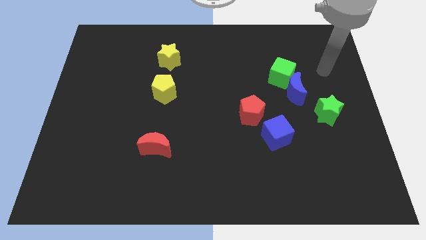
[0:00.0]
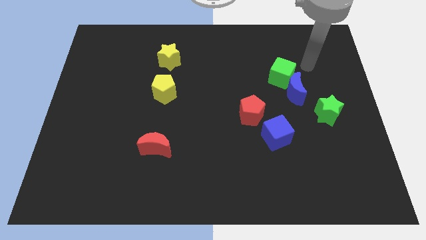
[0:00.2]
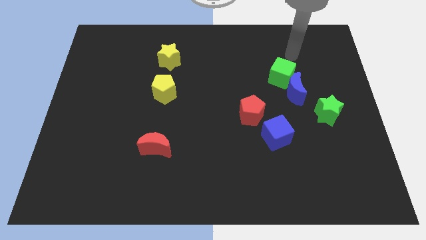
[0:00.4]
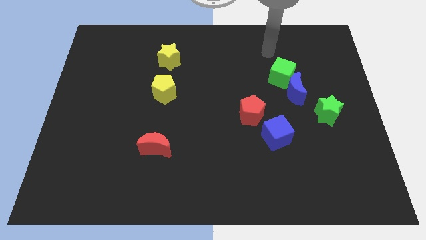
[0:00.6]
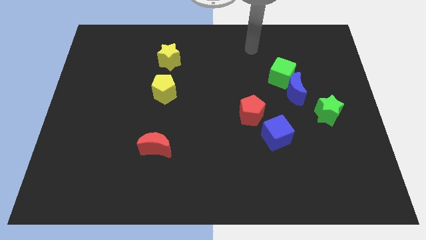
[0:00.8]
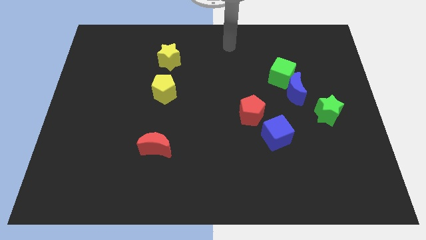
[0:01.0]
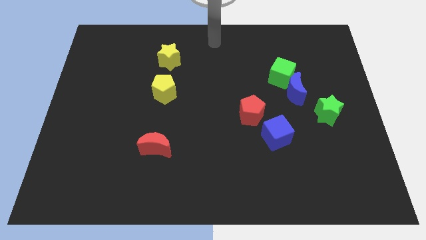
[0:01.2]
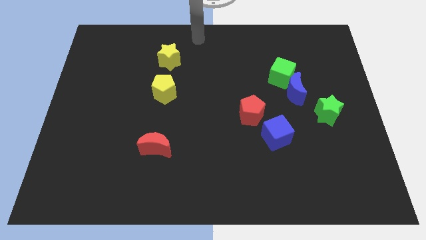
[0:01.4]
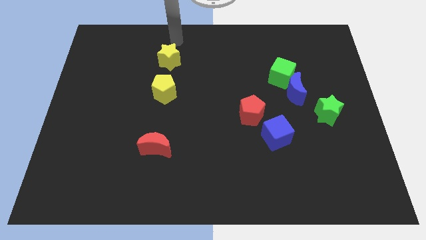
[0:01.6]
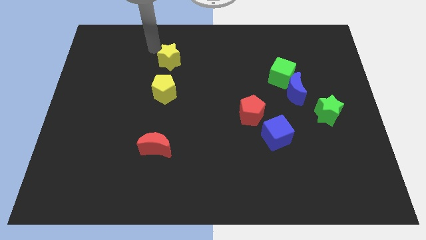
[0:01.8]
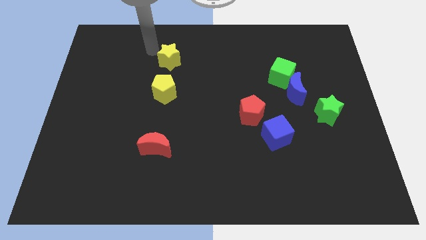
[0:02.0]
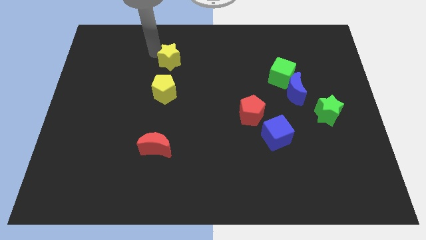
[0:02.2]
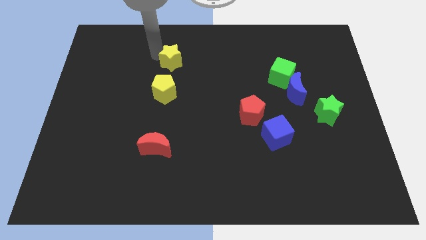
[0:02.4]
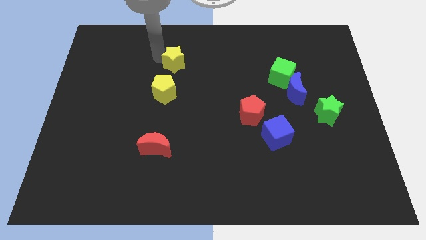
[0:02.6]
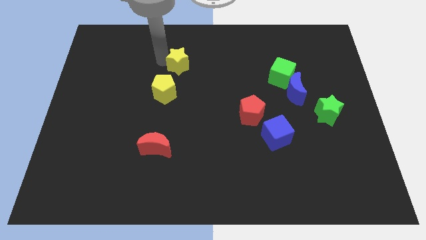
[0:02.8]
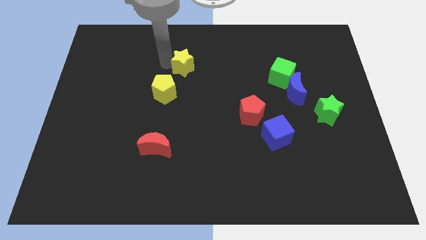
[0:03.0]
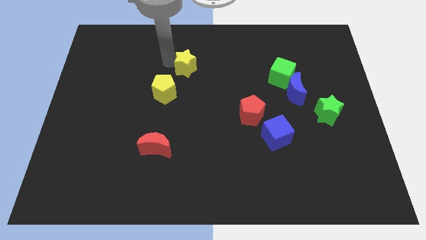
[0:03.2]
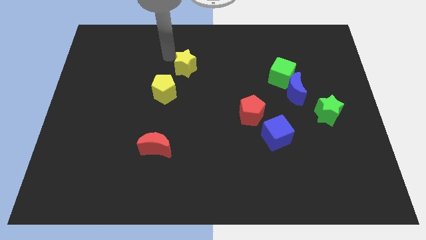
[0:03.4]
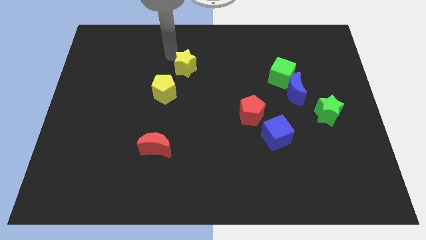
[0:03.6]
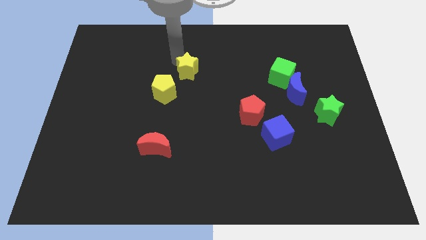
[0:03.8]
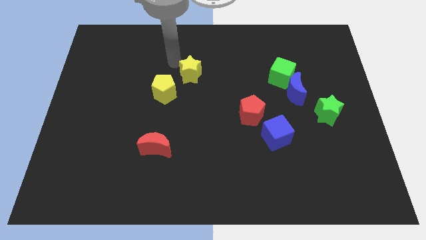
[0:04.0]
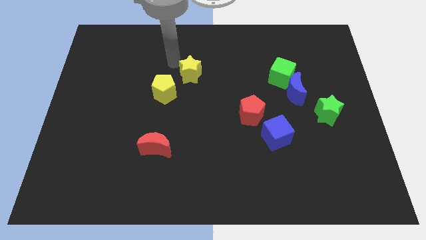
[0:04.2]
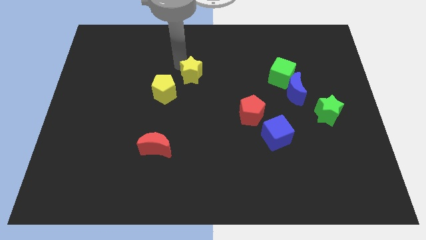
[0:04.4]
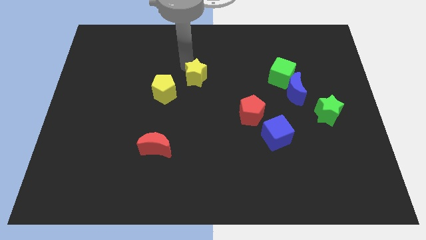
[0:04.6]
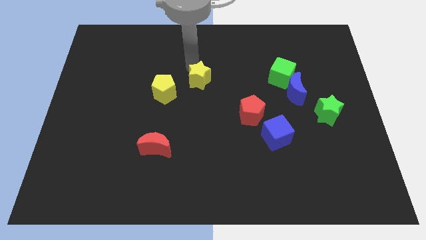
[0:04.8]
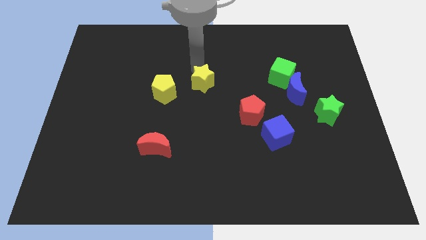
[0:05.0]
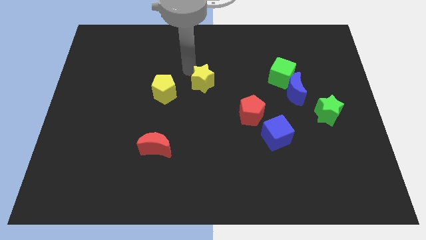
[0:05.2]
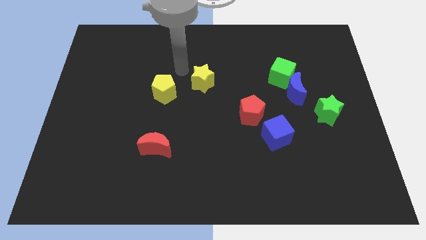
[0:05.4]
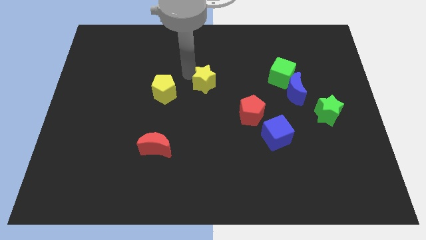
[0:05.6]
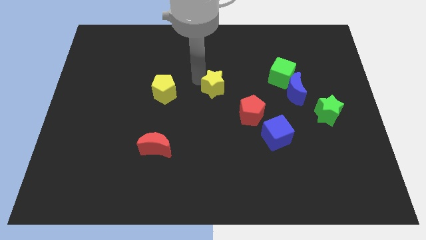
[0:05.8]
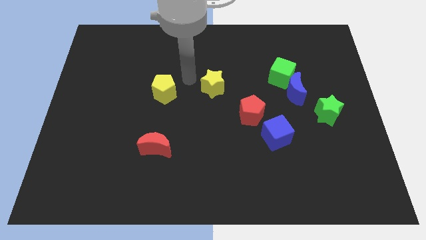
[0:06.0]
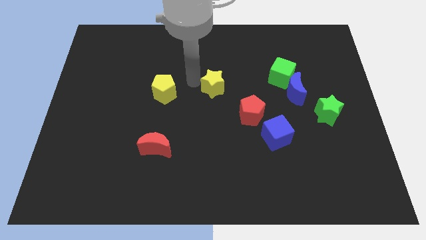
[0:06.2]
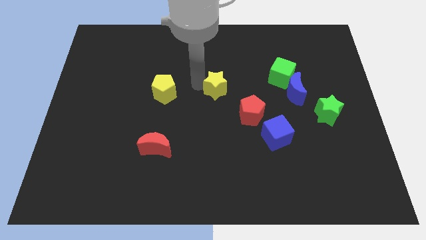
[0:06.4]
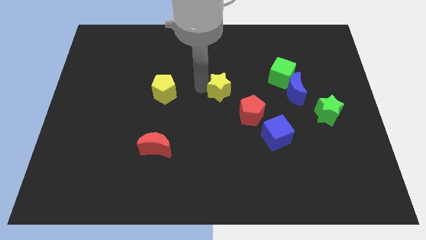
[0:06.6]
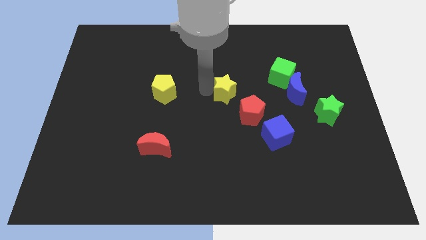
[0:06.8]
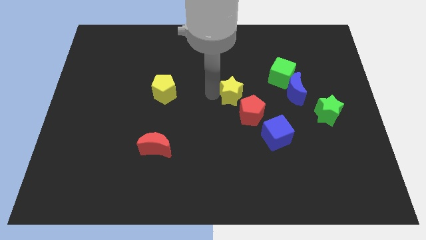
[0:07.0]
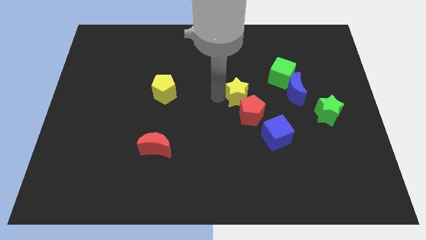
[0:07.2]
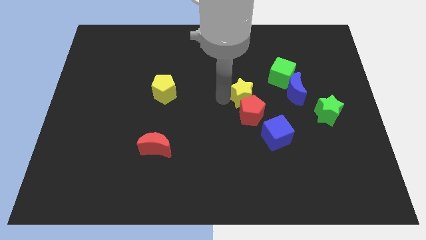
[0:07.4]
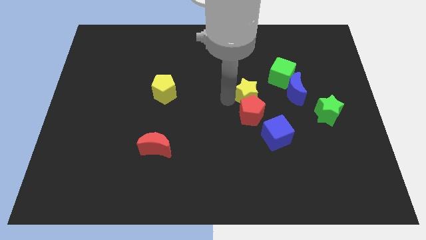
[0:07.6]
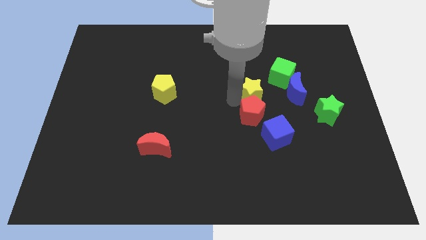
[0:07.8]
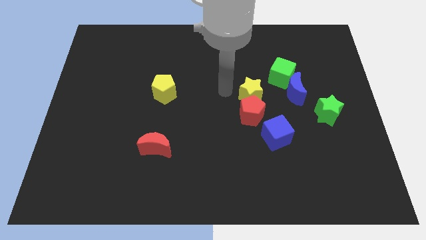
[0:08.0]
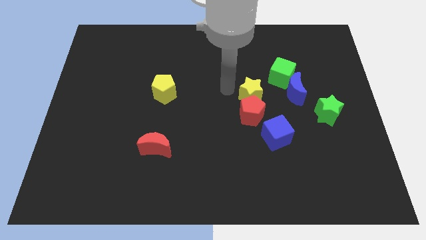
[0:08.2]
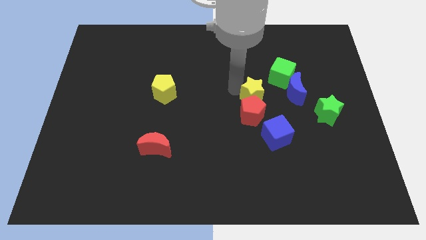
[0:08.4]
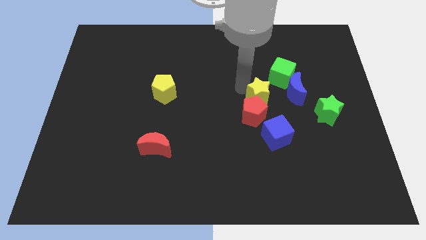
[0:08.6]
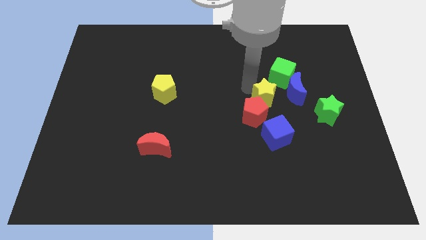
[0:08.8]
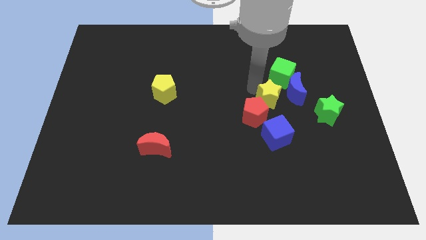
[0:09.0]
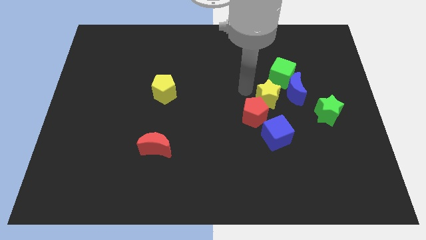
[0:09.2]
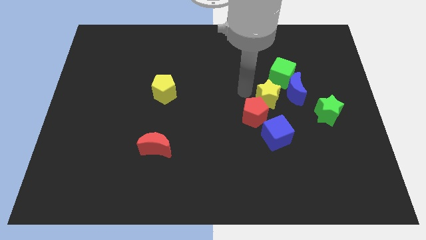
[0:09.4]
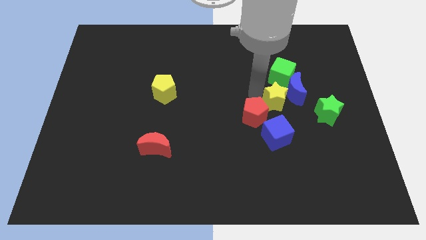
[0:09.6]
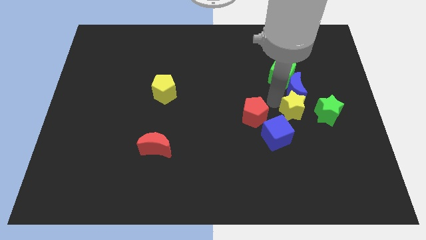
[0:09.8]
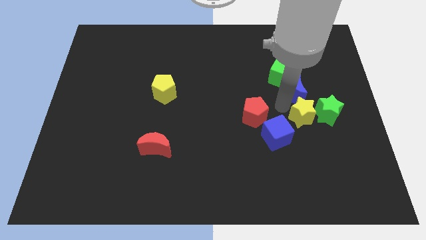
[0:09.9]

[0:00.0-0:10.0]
move the yellow star next to the green star

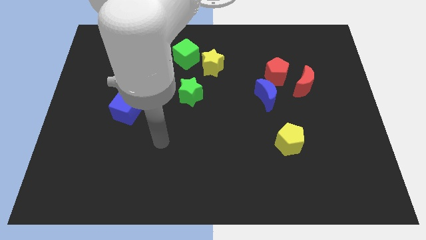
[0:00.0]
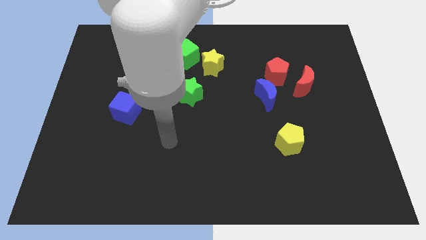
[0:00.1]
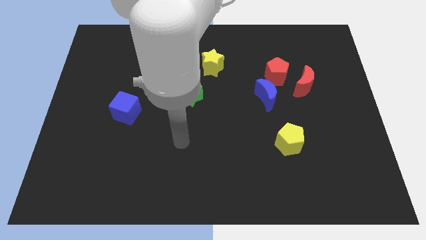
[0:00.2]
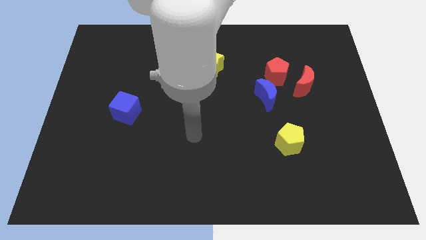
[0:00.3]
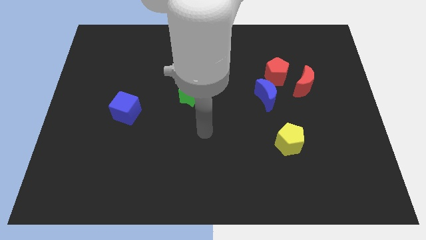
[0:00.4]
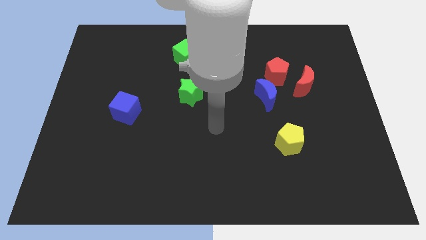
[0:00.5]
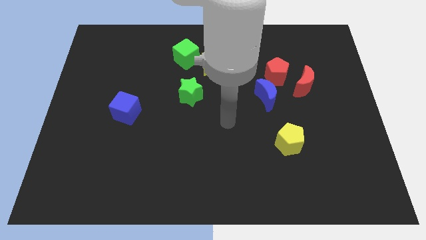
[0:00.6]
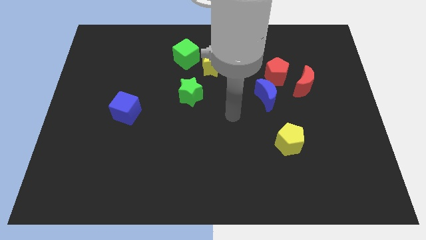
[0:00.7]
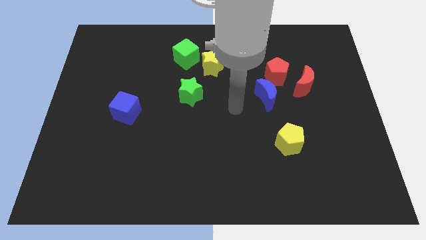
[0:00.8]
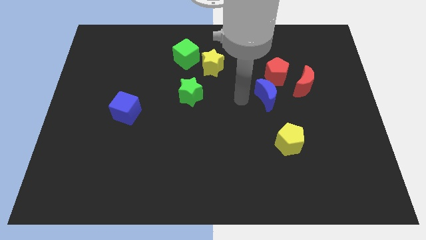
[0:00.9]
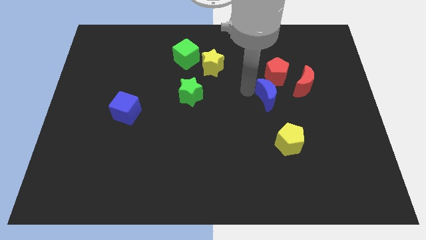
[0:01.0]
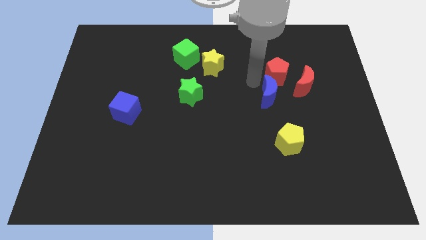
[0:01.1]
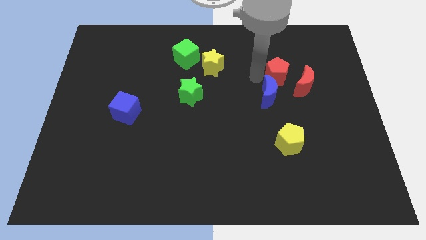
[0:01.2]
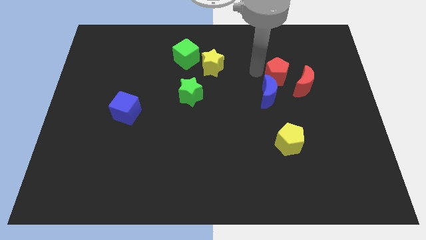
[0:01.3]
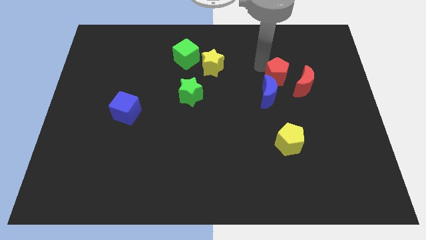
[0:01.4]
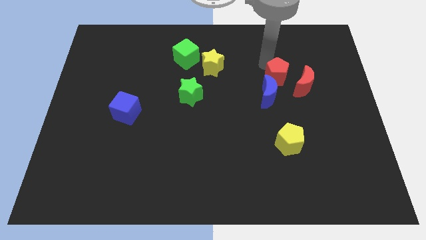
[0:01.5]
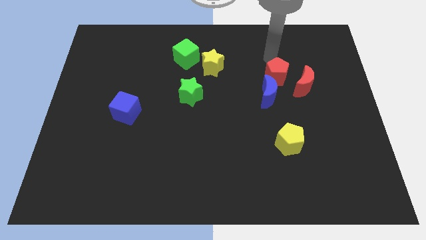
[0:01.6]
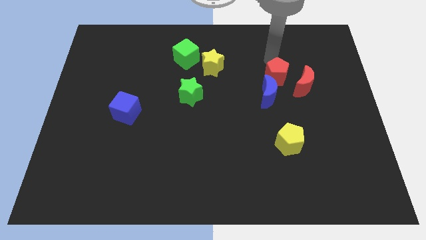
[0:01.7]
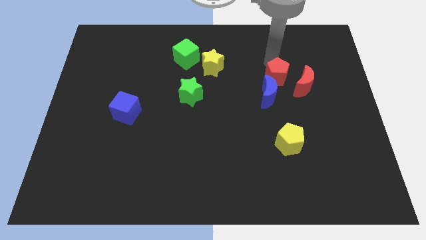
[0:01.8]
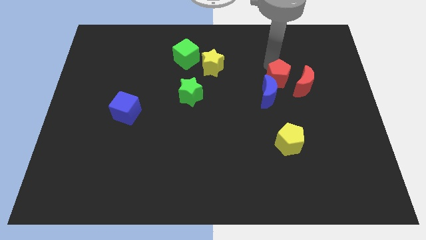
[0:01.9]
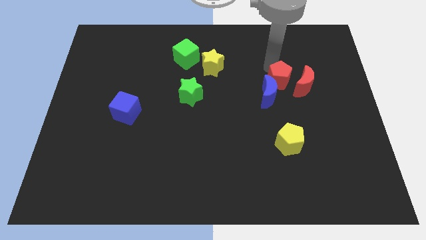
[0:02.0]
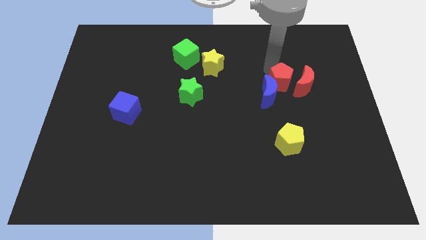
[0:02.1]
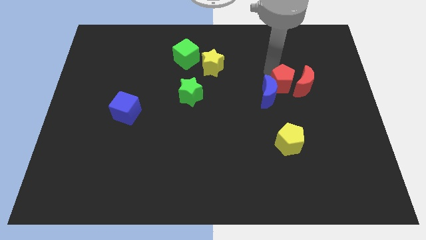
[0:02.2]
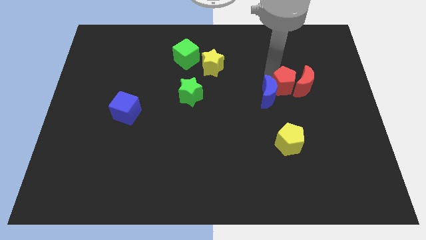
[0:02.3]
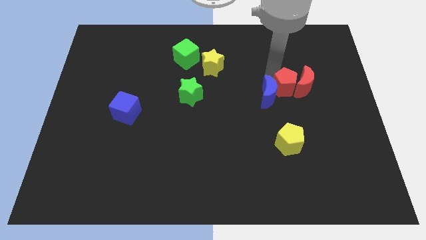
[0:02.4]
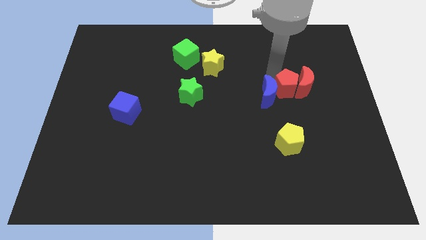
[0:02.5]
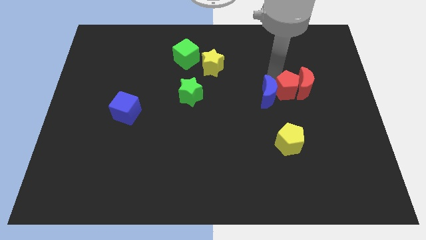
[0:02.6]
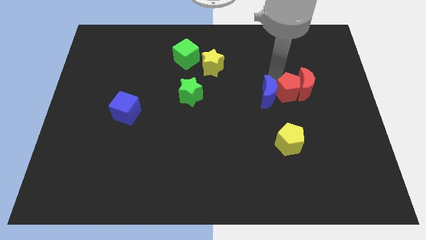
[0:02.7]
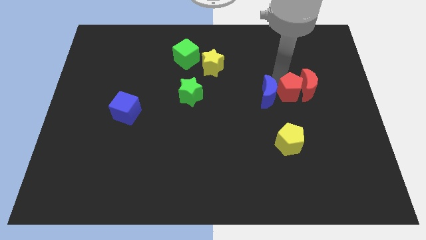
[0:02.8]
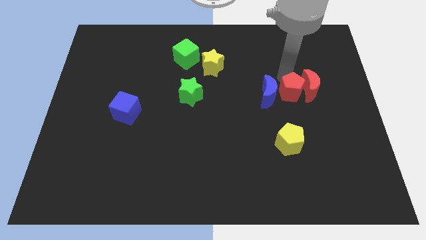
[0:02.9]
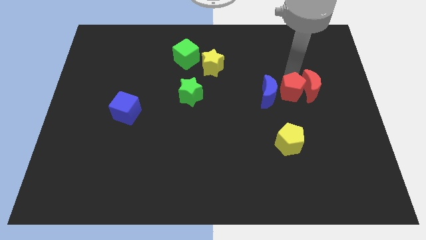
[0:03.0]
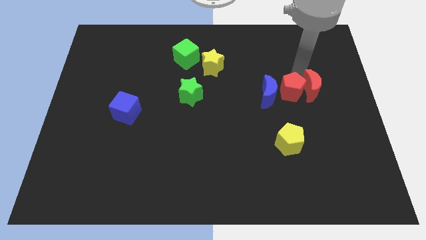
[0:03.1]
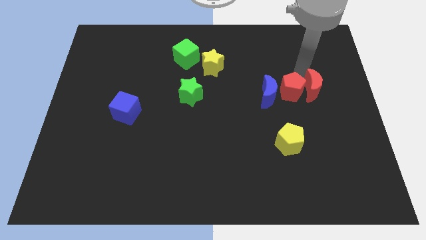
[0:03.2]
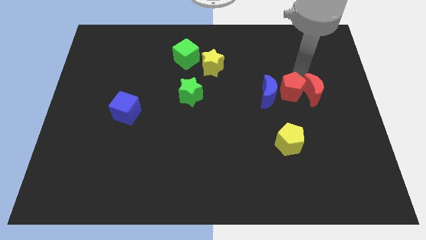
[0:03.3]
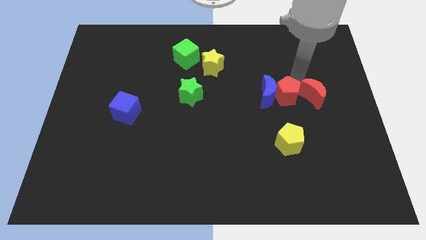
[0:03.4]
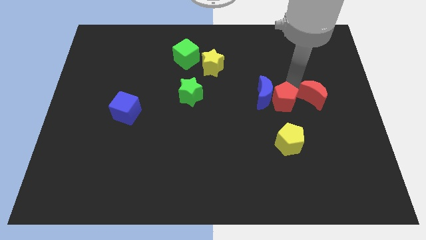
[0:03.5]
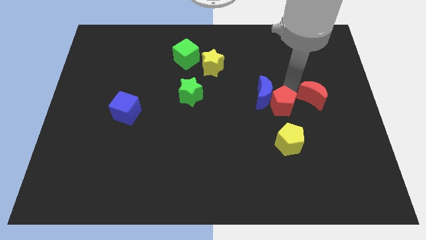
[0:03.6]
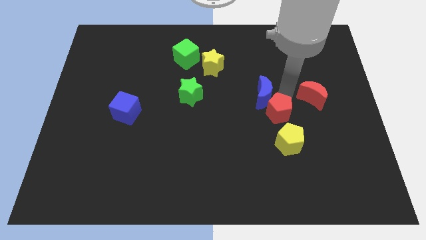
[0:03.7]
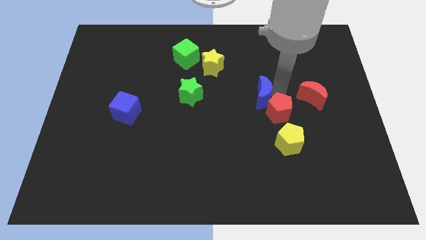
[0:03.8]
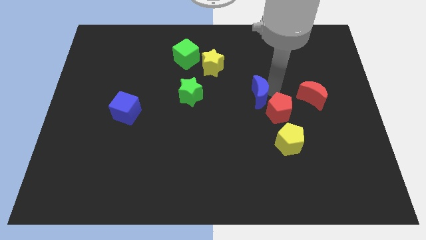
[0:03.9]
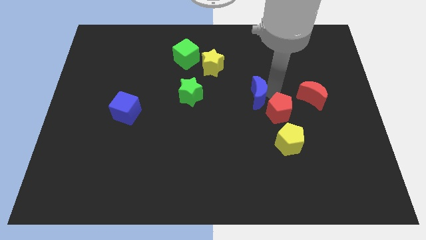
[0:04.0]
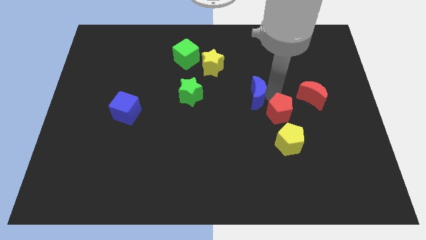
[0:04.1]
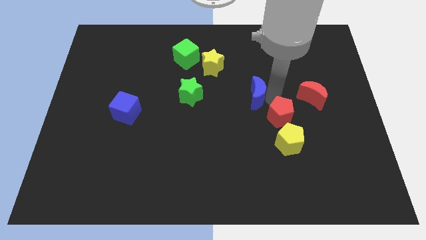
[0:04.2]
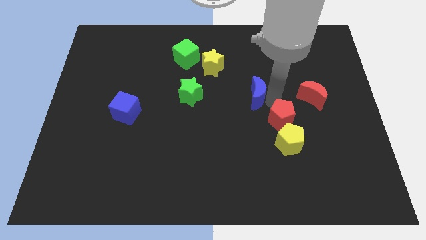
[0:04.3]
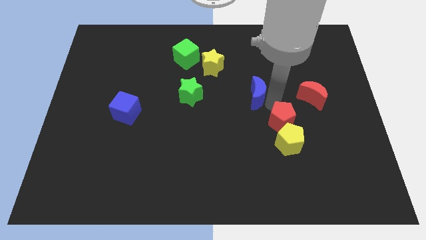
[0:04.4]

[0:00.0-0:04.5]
move the red pentagon close to the yellow pentagon
